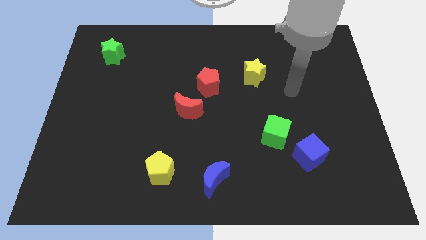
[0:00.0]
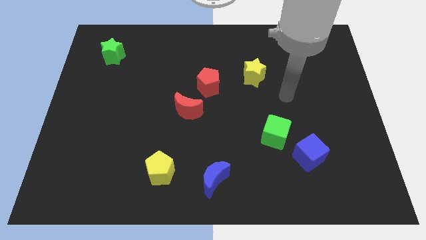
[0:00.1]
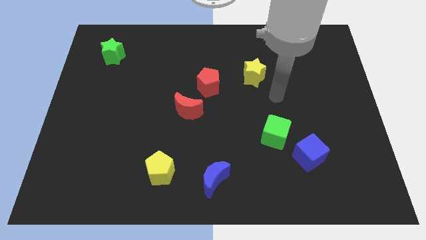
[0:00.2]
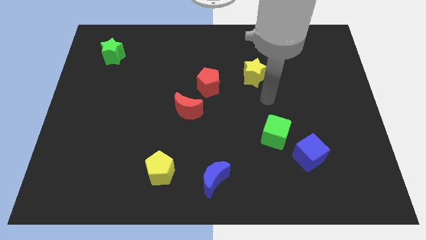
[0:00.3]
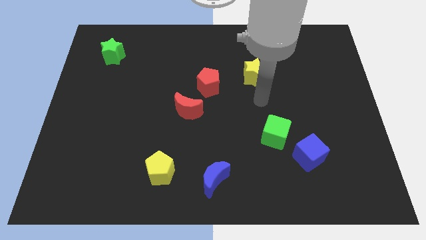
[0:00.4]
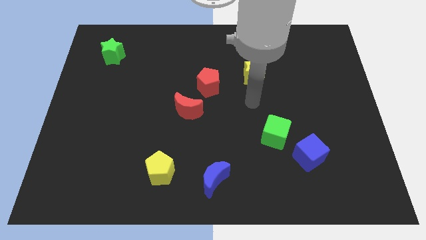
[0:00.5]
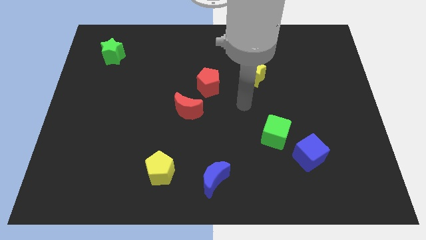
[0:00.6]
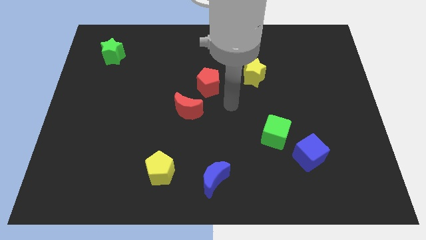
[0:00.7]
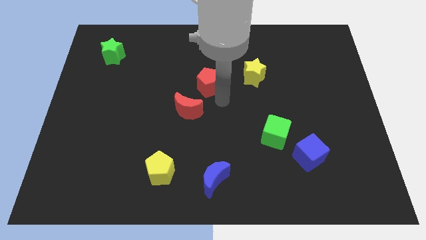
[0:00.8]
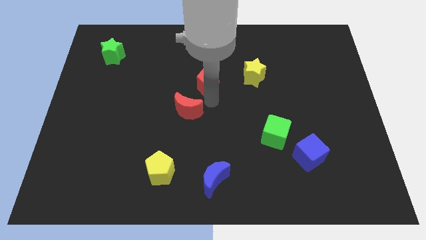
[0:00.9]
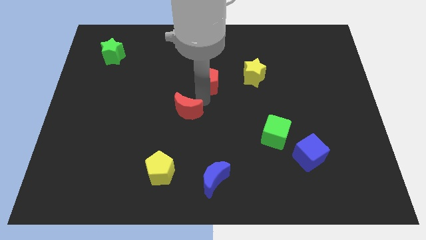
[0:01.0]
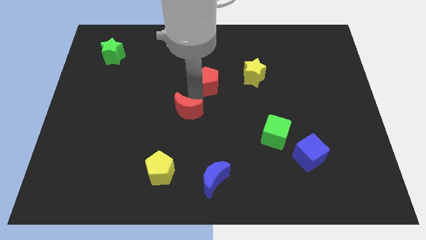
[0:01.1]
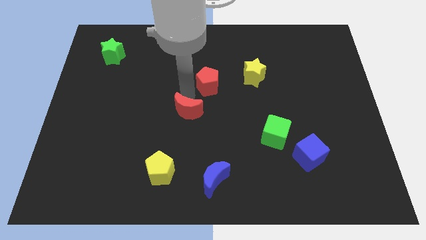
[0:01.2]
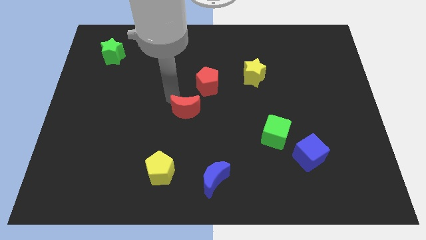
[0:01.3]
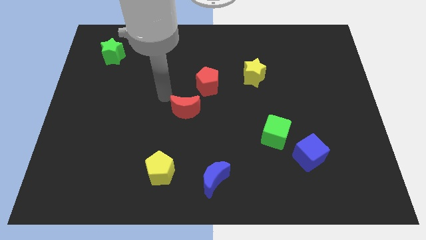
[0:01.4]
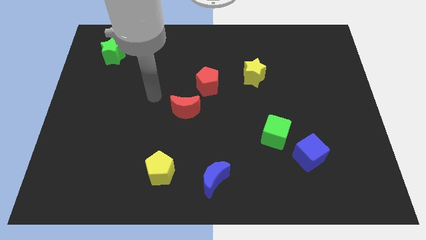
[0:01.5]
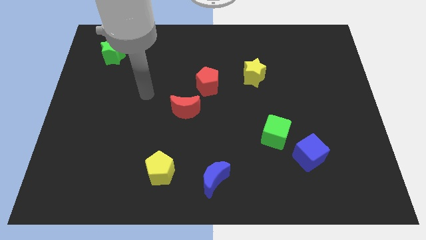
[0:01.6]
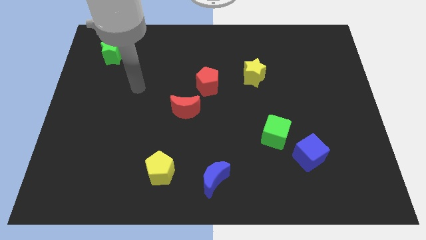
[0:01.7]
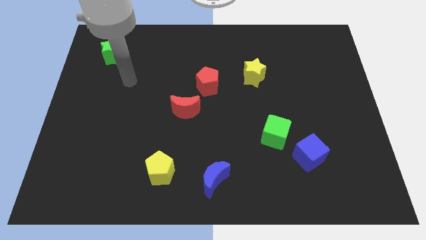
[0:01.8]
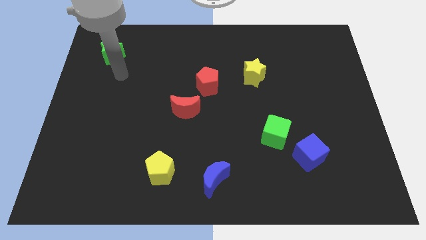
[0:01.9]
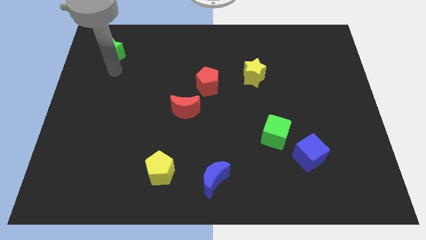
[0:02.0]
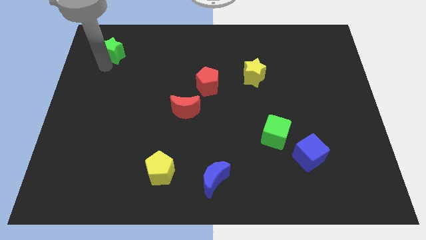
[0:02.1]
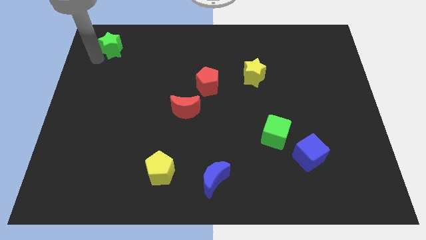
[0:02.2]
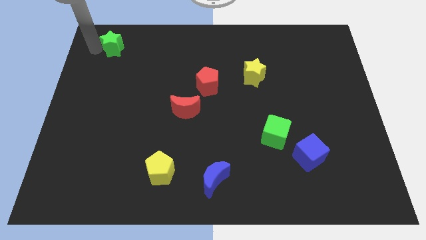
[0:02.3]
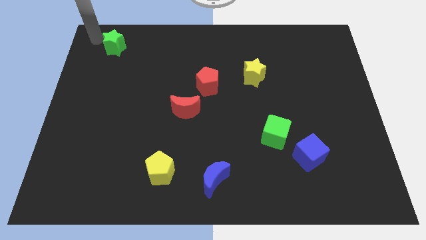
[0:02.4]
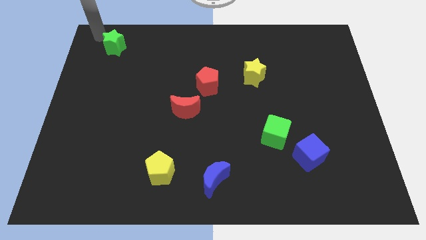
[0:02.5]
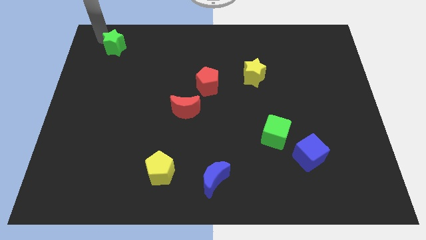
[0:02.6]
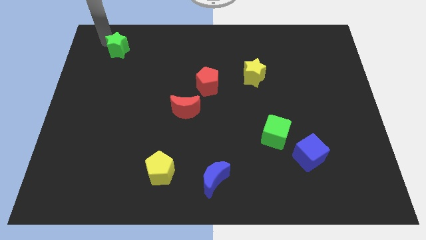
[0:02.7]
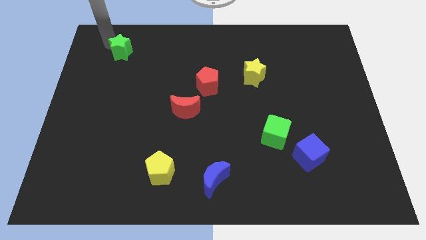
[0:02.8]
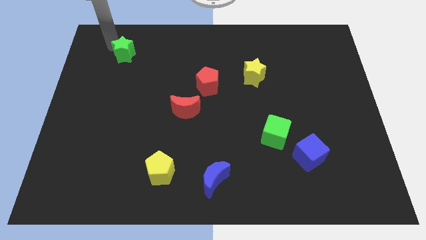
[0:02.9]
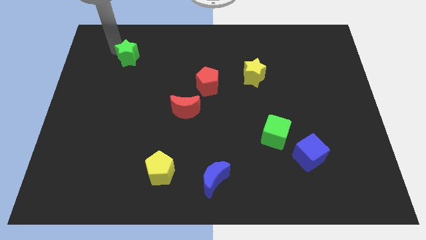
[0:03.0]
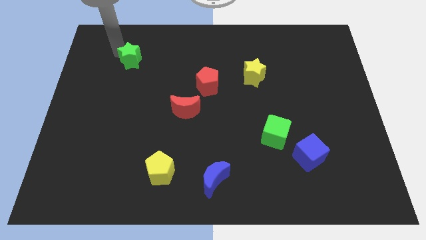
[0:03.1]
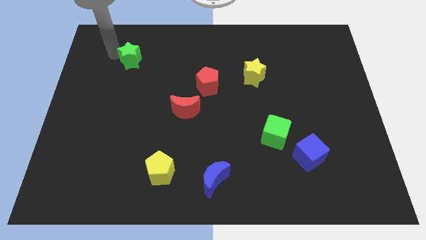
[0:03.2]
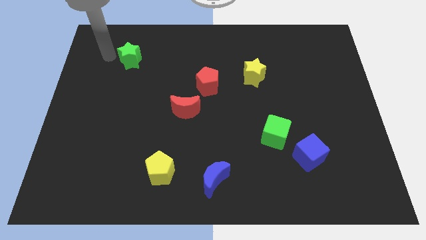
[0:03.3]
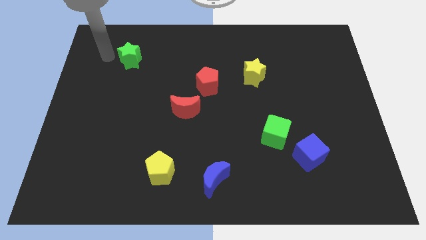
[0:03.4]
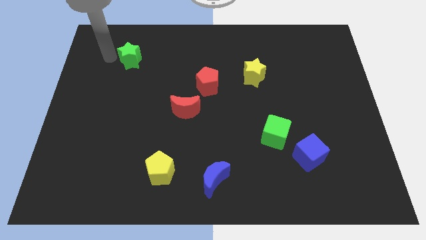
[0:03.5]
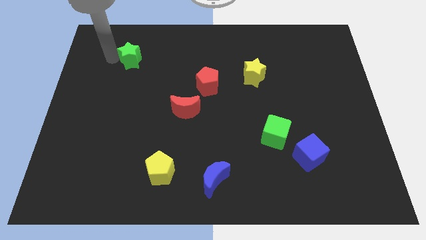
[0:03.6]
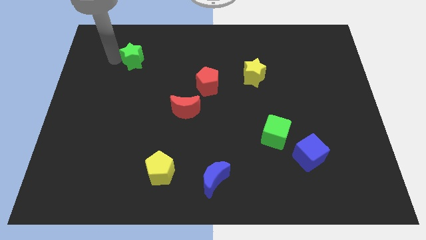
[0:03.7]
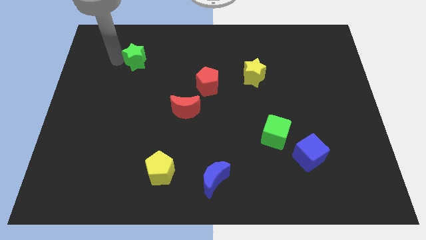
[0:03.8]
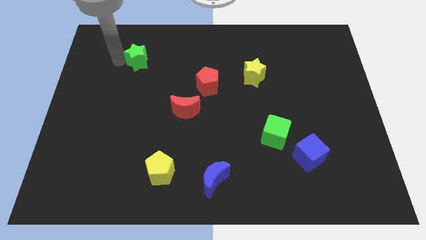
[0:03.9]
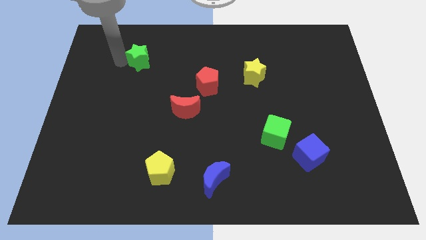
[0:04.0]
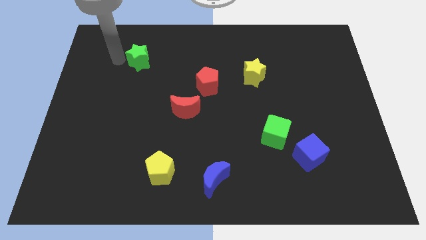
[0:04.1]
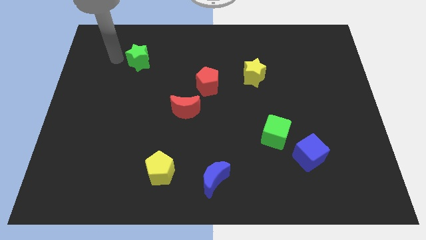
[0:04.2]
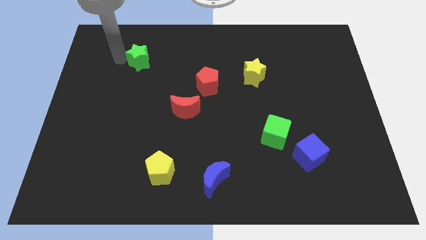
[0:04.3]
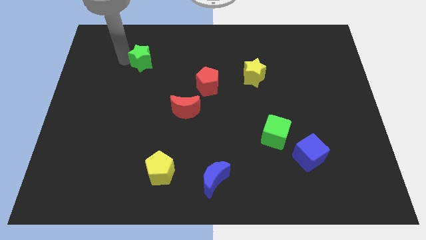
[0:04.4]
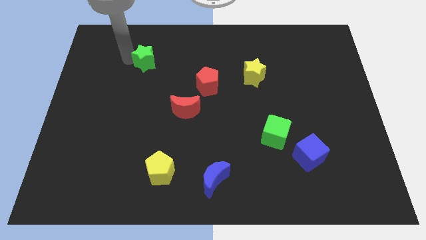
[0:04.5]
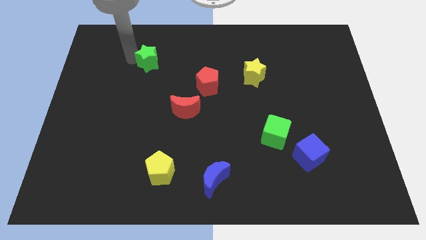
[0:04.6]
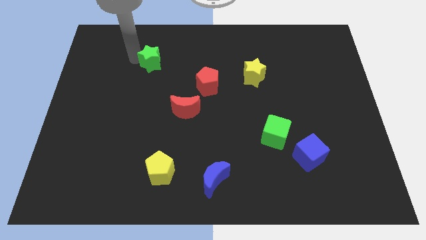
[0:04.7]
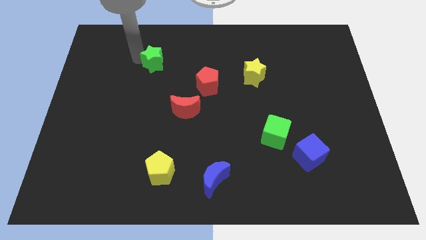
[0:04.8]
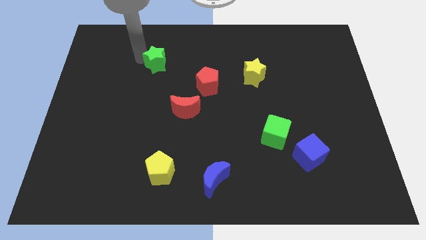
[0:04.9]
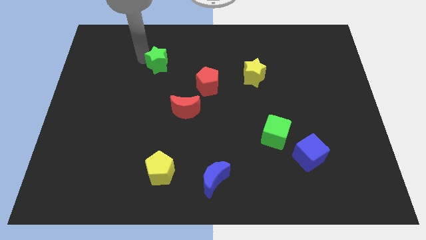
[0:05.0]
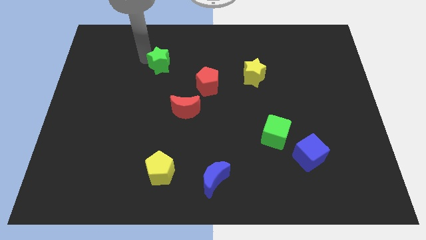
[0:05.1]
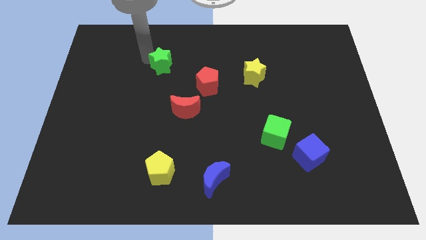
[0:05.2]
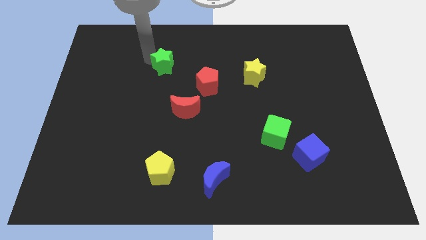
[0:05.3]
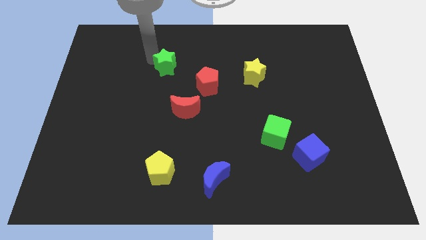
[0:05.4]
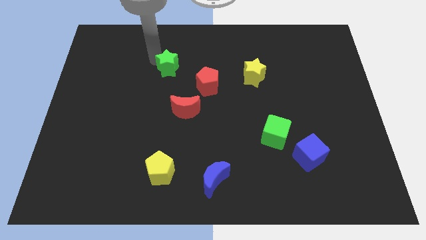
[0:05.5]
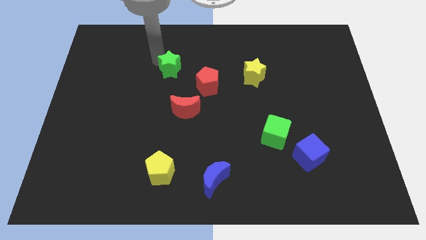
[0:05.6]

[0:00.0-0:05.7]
put the green star above the red moon

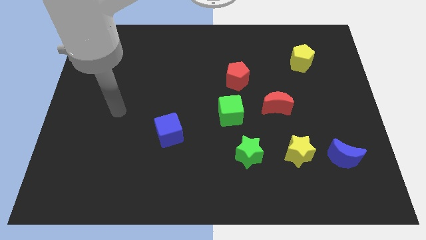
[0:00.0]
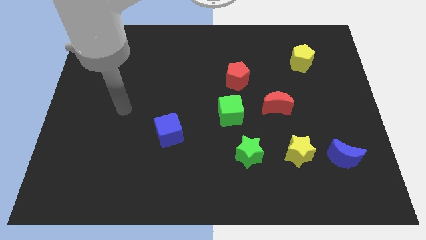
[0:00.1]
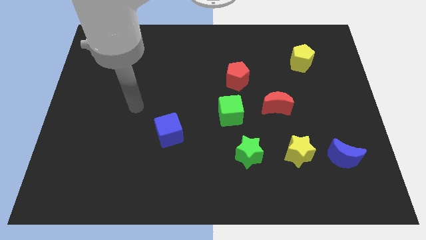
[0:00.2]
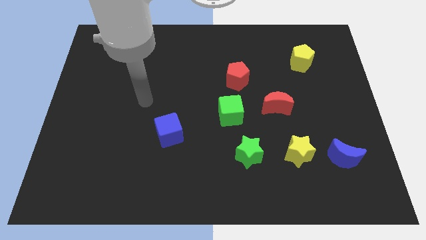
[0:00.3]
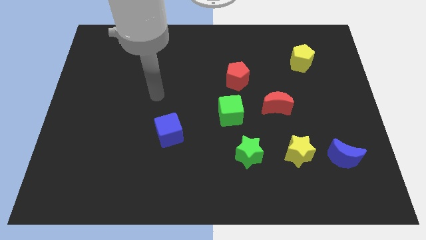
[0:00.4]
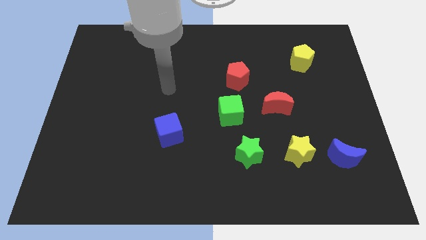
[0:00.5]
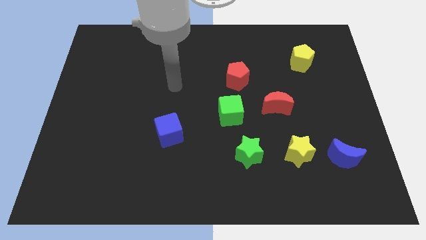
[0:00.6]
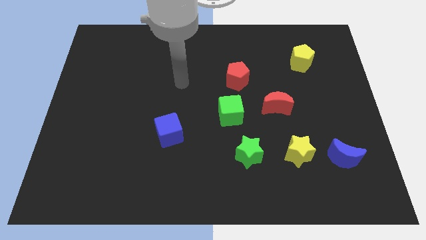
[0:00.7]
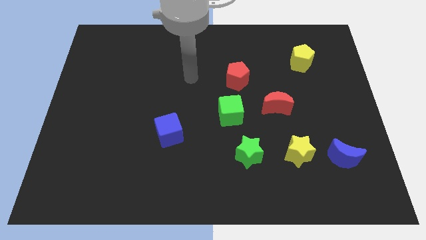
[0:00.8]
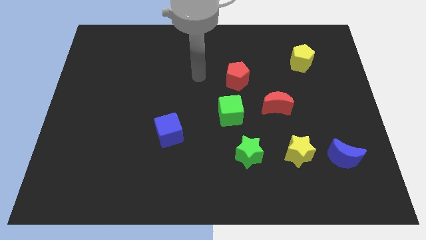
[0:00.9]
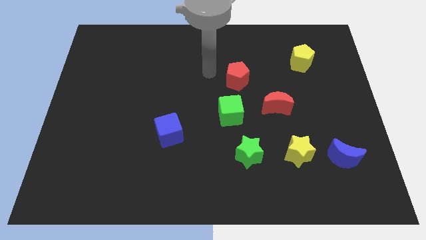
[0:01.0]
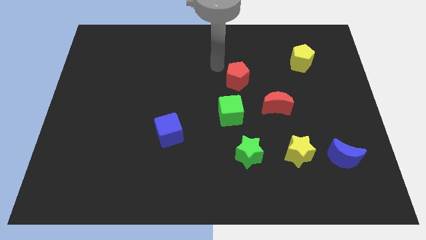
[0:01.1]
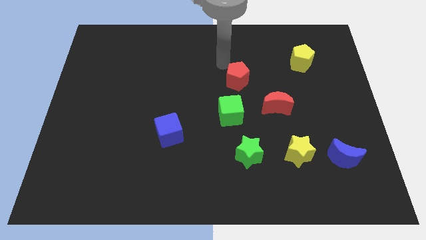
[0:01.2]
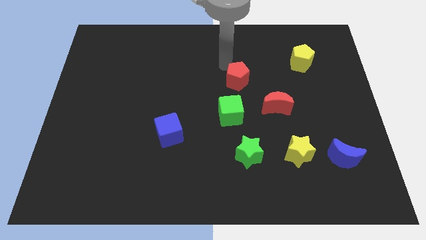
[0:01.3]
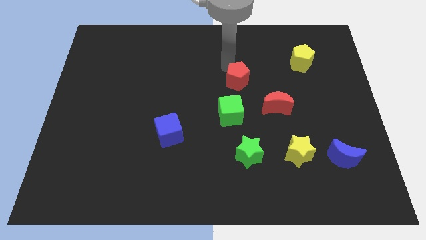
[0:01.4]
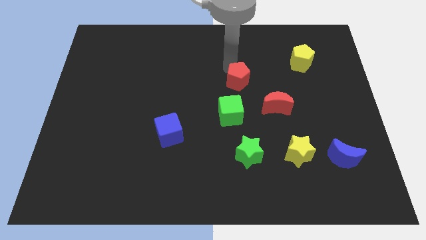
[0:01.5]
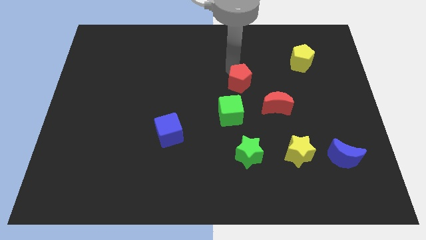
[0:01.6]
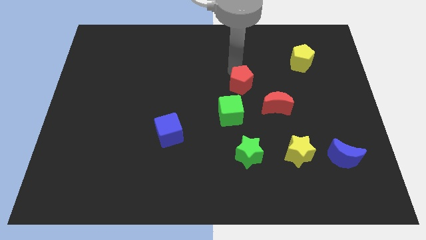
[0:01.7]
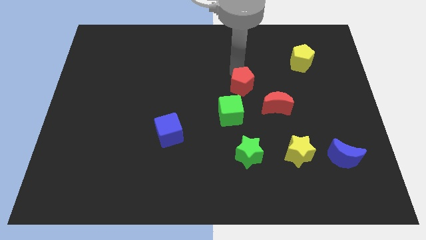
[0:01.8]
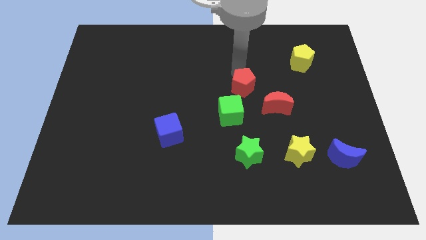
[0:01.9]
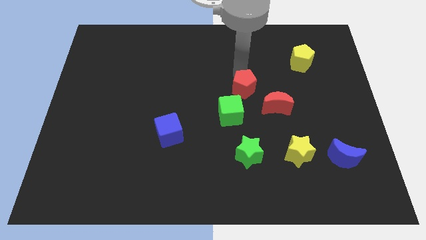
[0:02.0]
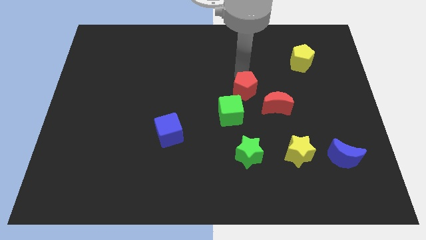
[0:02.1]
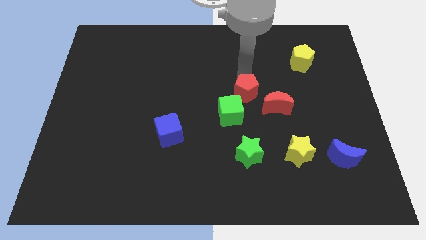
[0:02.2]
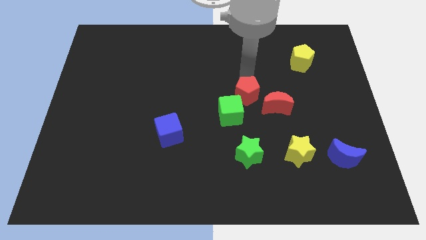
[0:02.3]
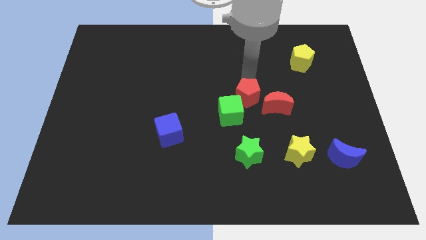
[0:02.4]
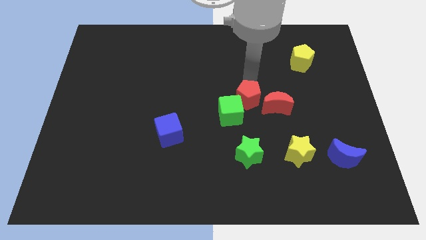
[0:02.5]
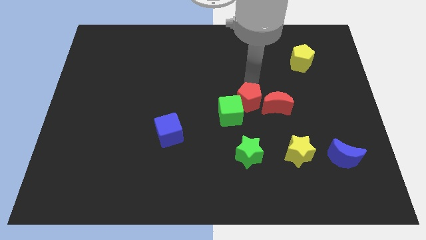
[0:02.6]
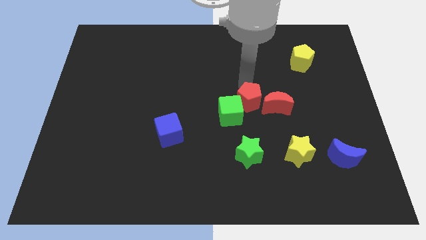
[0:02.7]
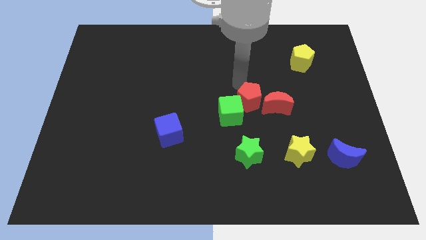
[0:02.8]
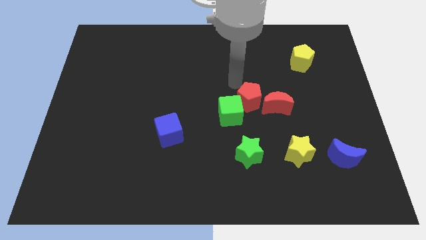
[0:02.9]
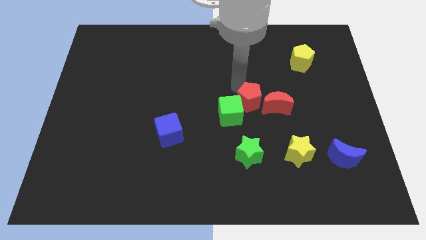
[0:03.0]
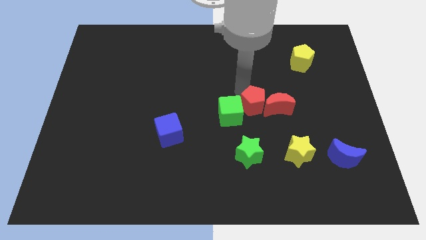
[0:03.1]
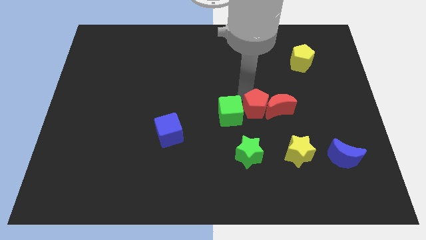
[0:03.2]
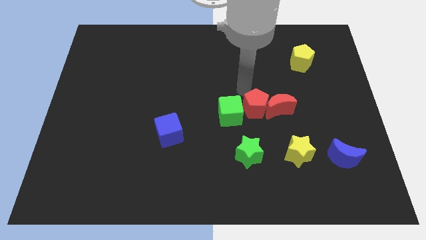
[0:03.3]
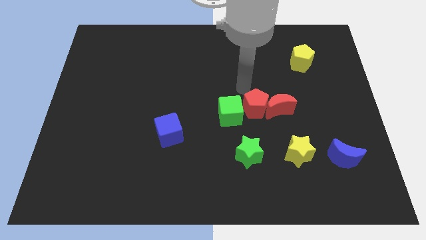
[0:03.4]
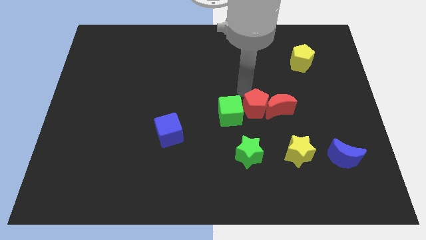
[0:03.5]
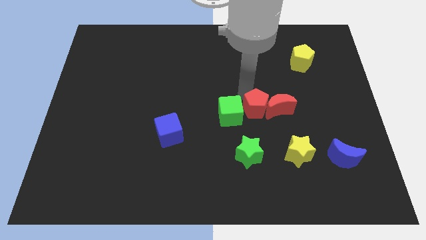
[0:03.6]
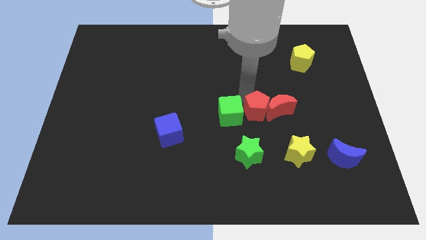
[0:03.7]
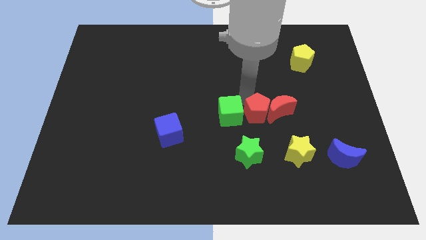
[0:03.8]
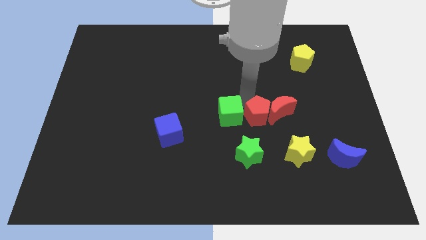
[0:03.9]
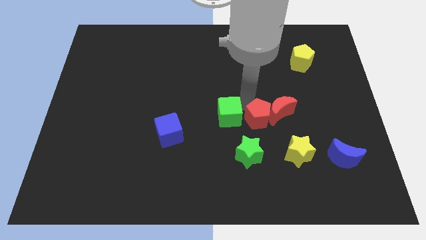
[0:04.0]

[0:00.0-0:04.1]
slide the red pentagon to the top left side of the yellow star
